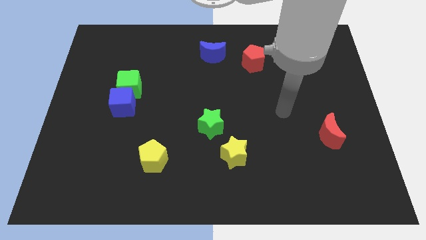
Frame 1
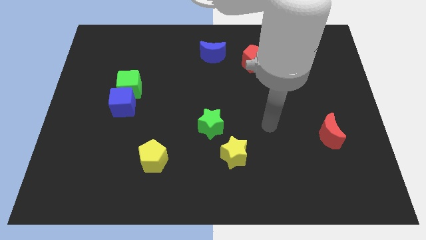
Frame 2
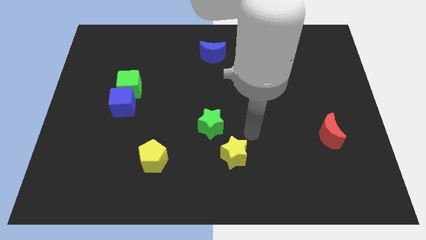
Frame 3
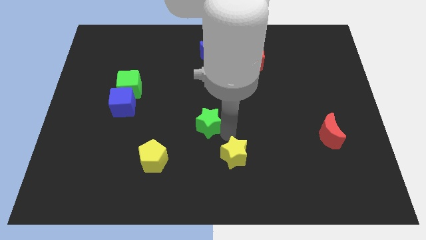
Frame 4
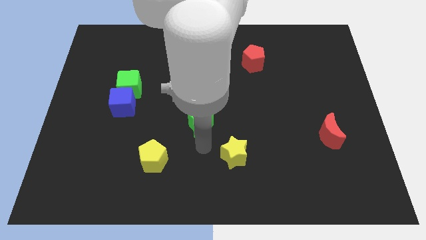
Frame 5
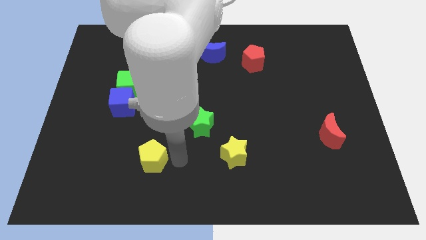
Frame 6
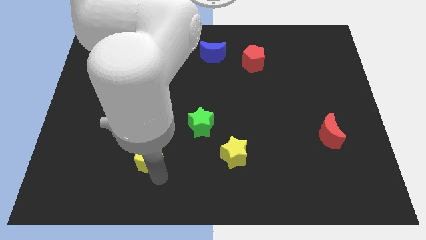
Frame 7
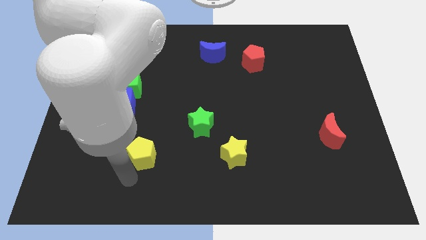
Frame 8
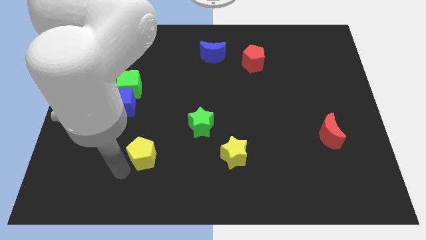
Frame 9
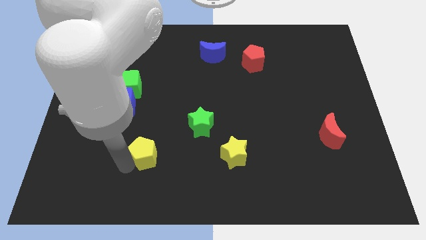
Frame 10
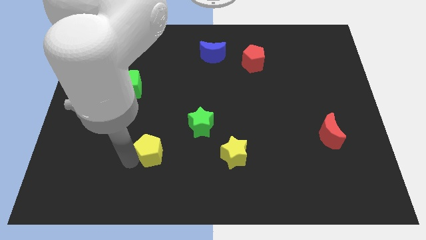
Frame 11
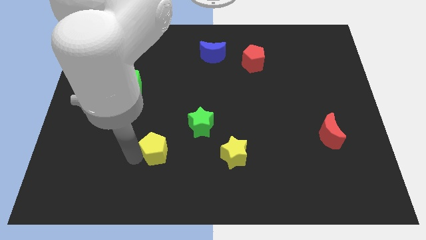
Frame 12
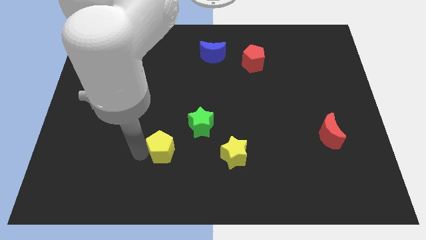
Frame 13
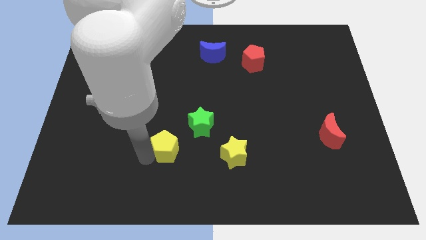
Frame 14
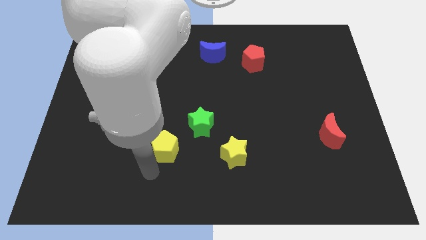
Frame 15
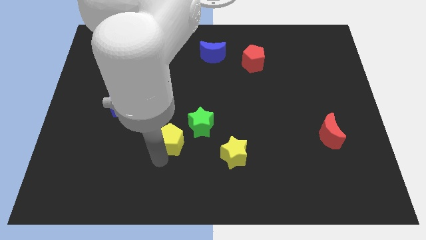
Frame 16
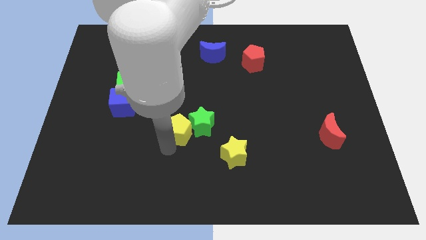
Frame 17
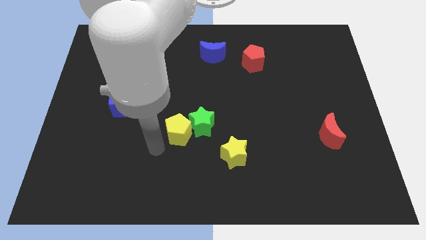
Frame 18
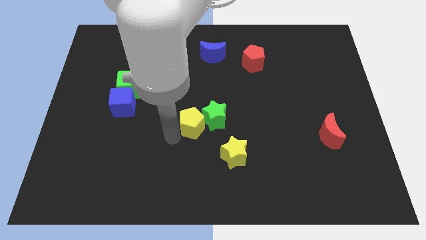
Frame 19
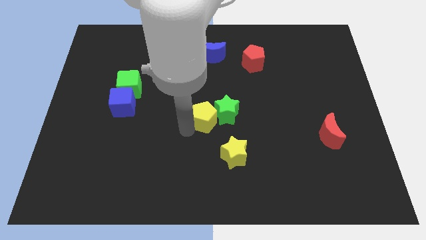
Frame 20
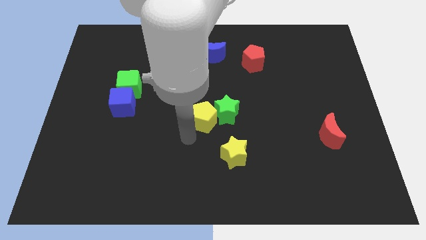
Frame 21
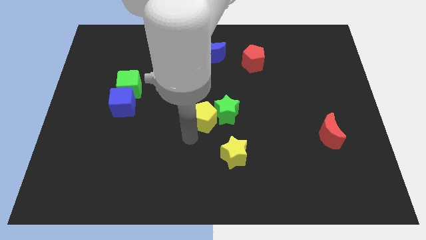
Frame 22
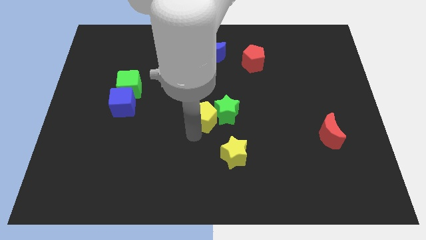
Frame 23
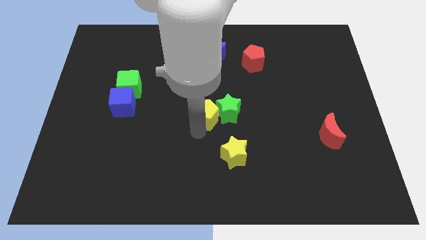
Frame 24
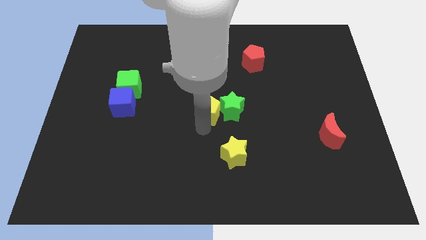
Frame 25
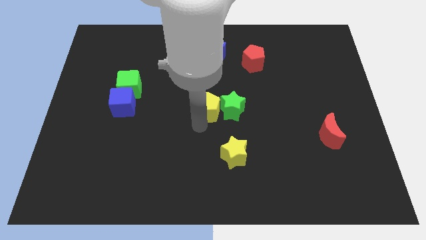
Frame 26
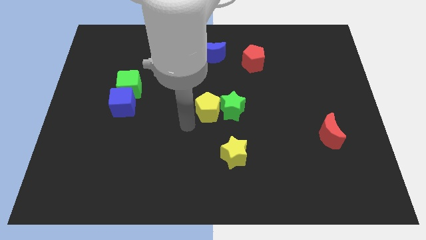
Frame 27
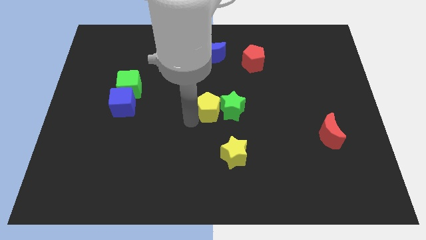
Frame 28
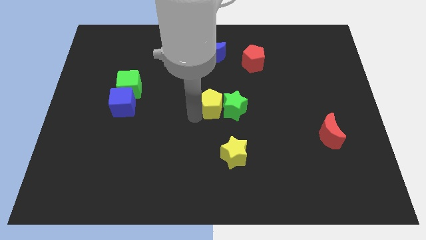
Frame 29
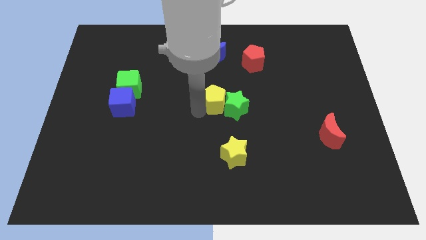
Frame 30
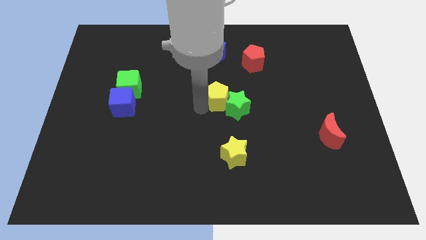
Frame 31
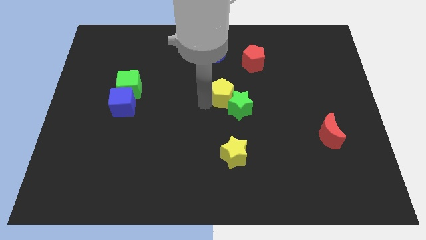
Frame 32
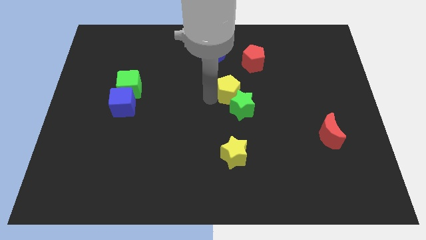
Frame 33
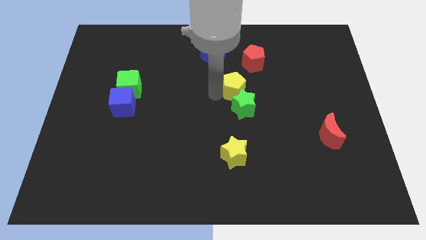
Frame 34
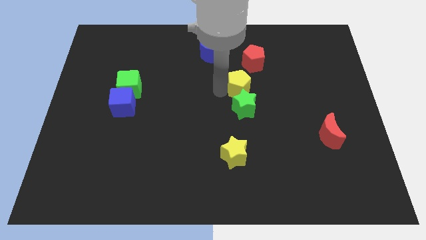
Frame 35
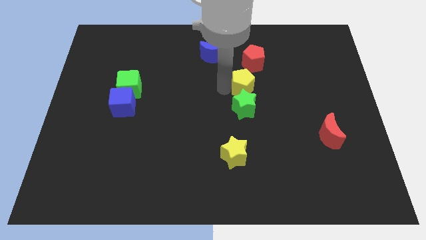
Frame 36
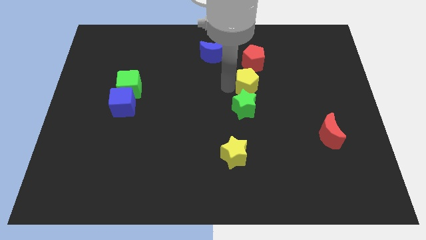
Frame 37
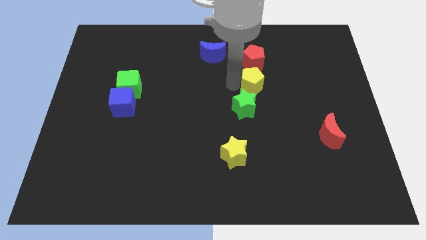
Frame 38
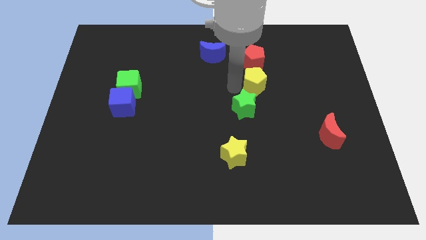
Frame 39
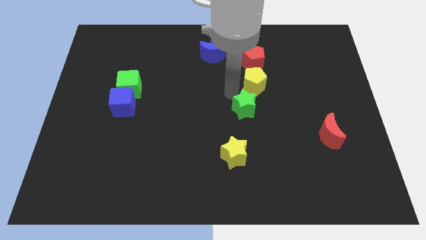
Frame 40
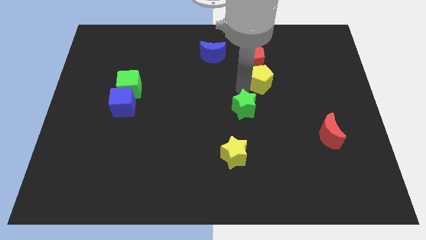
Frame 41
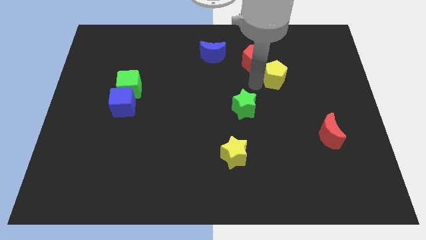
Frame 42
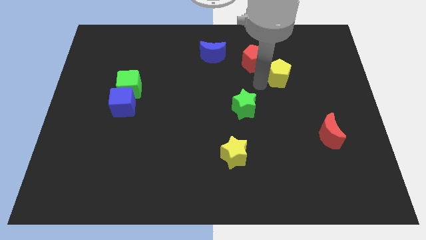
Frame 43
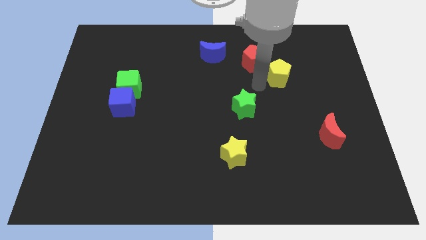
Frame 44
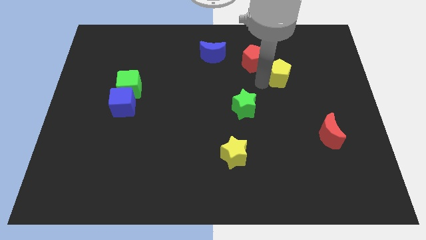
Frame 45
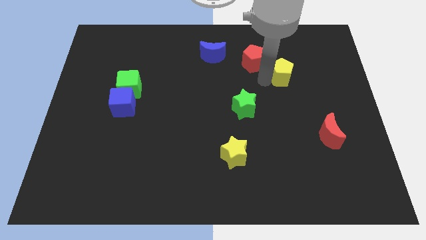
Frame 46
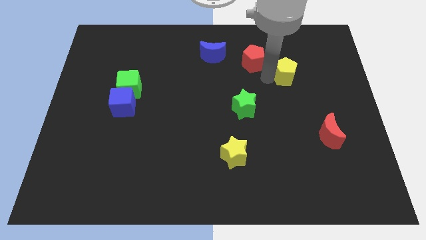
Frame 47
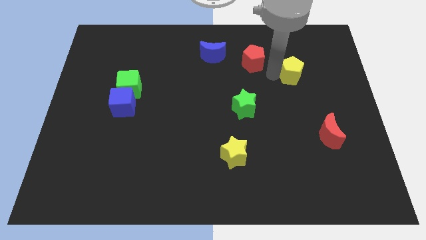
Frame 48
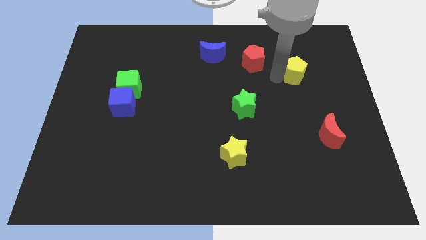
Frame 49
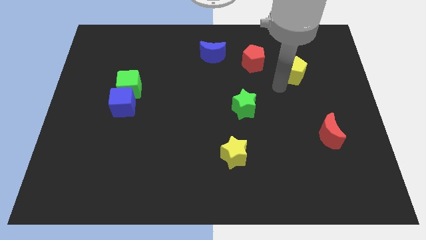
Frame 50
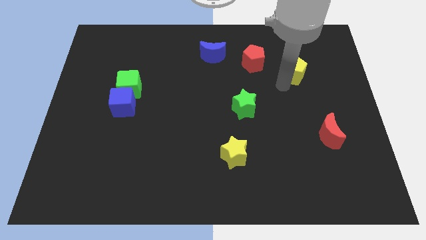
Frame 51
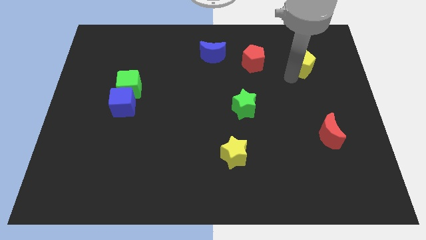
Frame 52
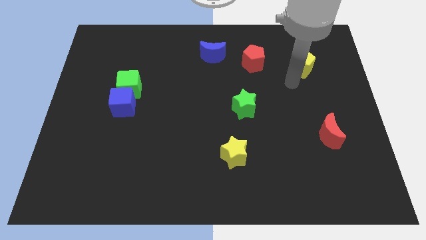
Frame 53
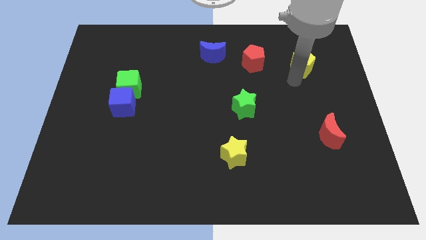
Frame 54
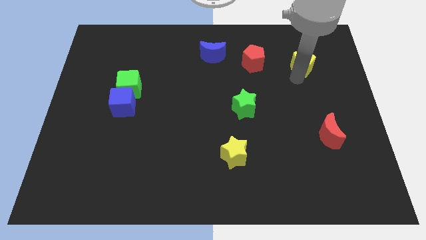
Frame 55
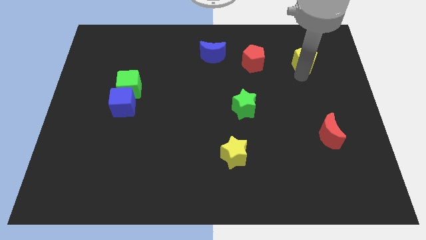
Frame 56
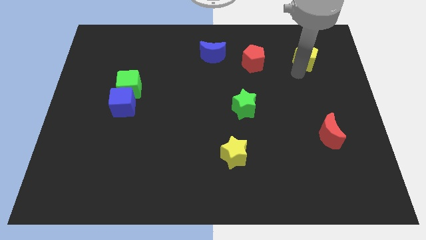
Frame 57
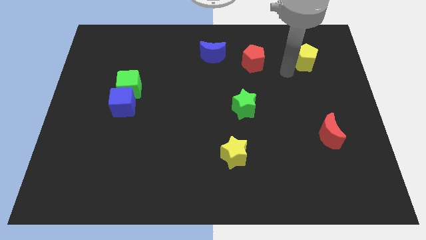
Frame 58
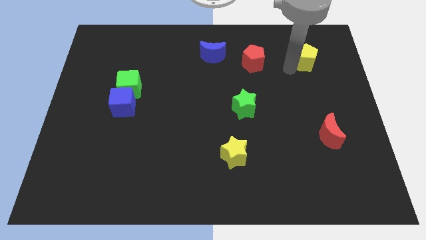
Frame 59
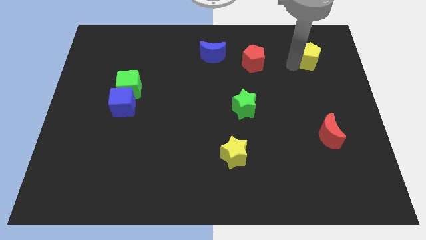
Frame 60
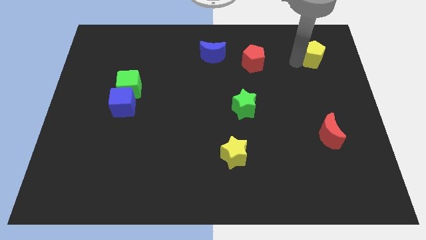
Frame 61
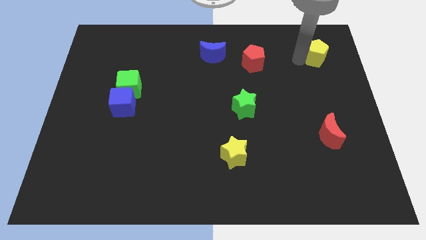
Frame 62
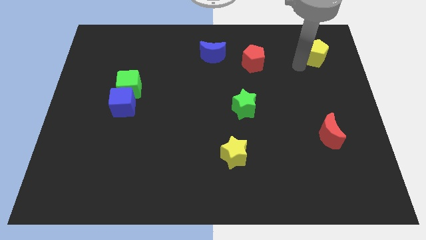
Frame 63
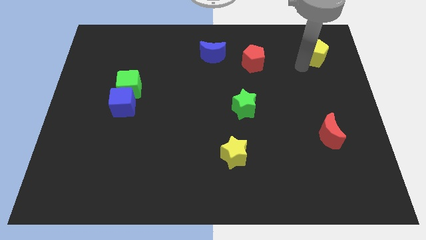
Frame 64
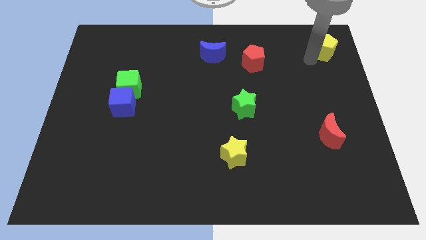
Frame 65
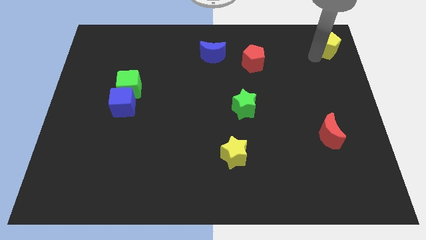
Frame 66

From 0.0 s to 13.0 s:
put the yellow pentagon to the top right corner

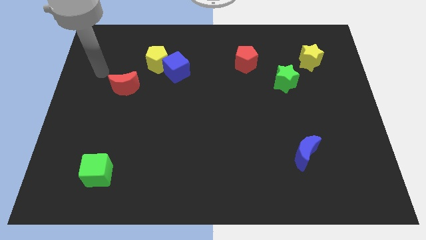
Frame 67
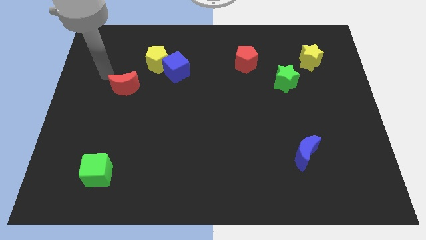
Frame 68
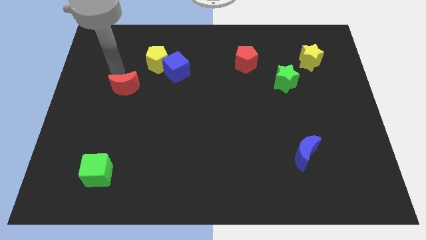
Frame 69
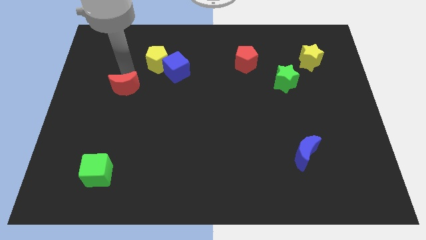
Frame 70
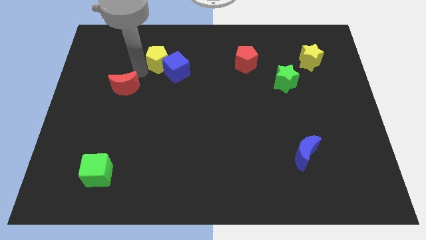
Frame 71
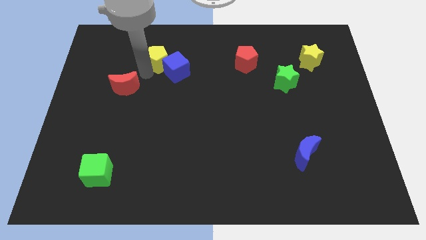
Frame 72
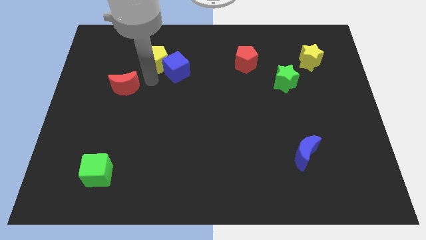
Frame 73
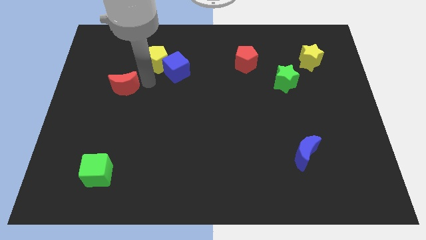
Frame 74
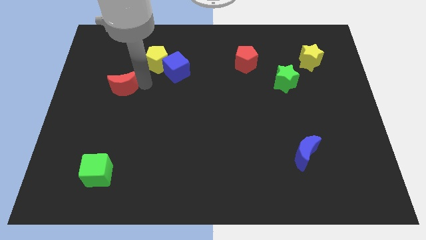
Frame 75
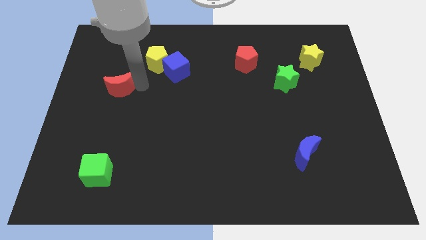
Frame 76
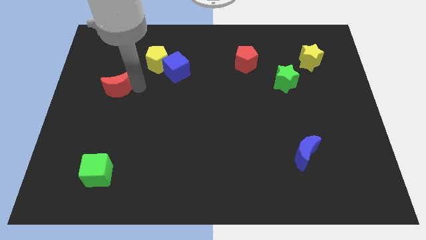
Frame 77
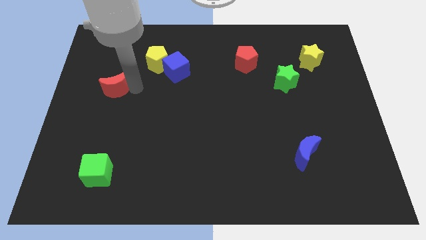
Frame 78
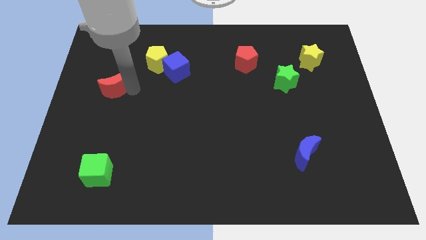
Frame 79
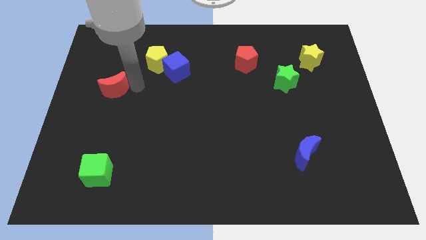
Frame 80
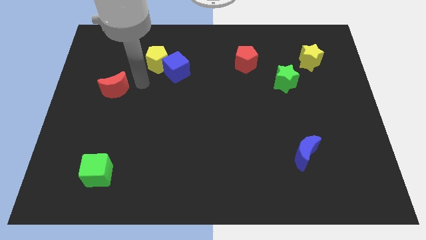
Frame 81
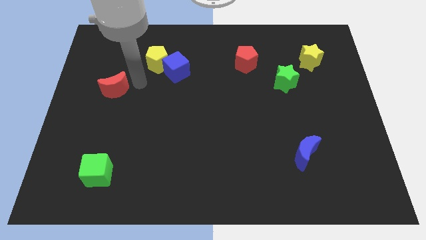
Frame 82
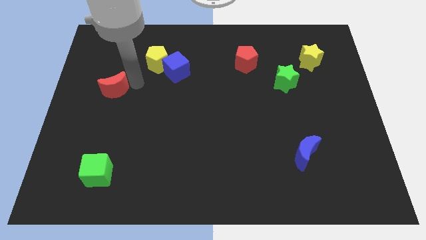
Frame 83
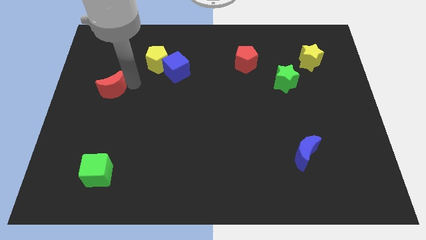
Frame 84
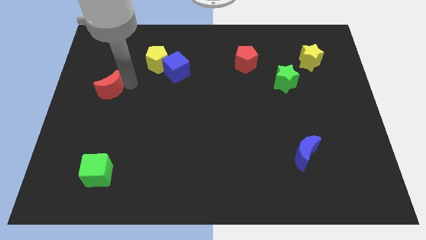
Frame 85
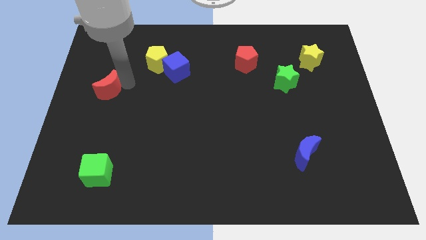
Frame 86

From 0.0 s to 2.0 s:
put the red moon to the left side of the board
